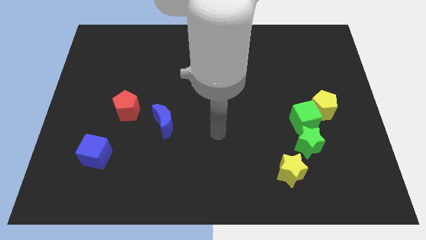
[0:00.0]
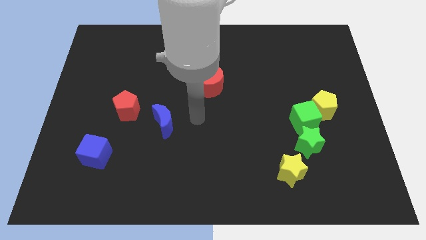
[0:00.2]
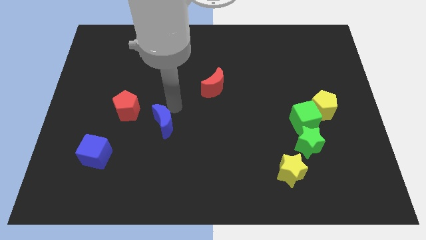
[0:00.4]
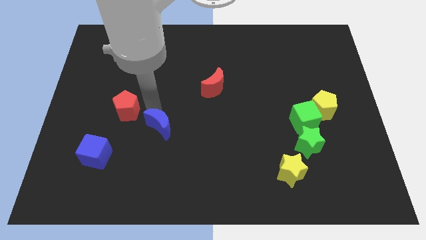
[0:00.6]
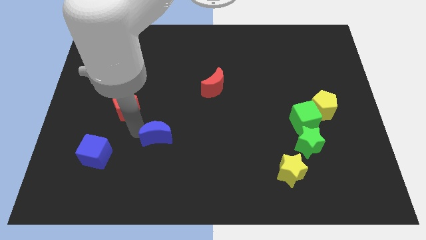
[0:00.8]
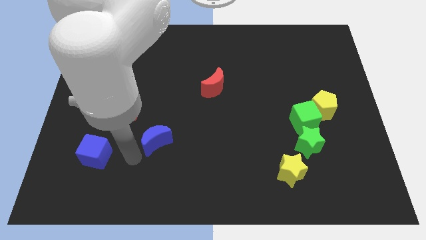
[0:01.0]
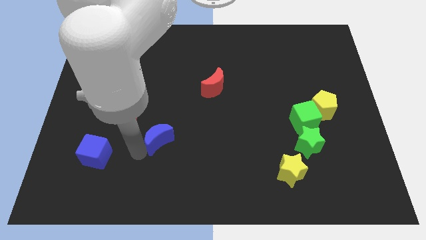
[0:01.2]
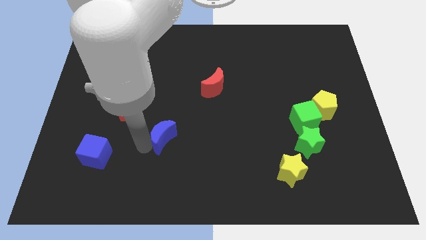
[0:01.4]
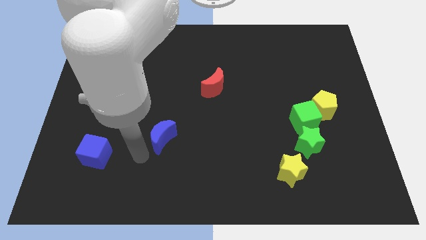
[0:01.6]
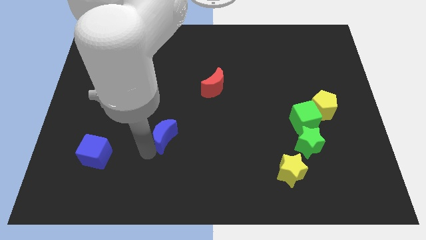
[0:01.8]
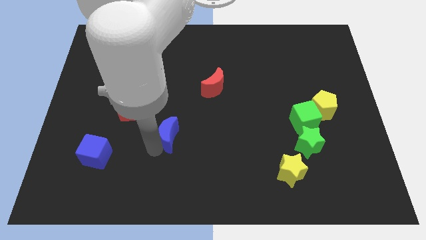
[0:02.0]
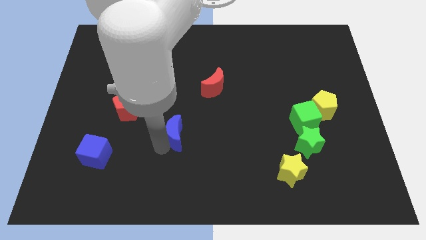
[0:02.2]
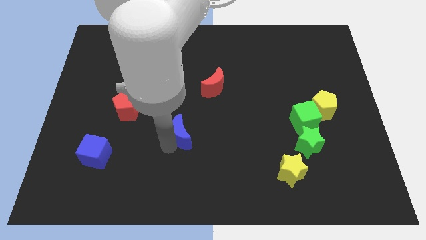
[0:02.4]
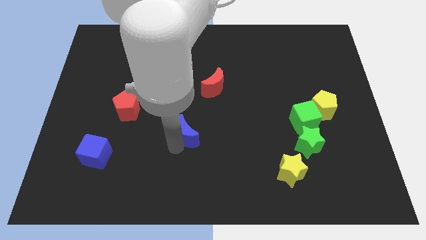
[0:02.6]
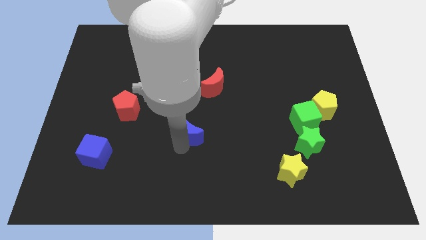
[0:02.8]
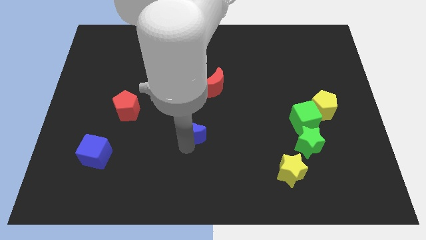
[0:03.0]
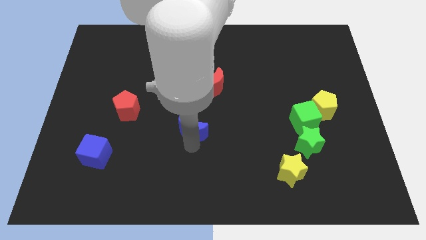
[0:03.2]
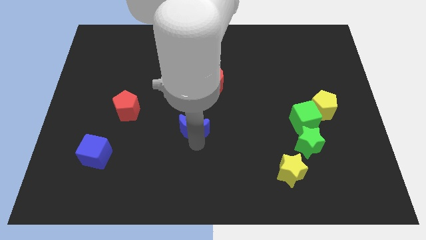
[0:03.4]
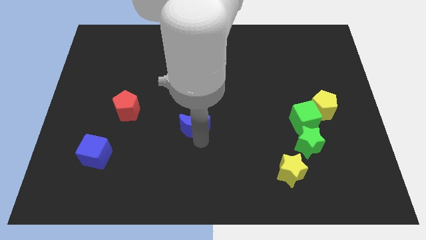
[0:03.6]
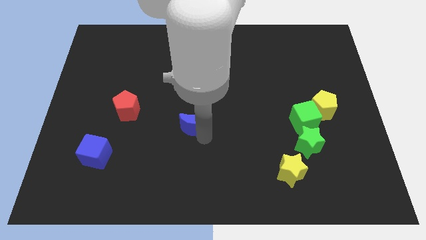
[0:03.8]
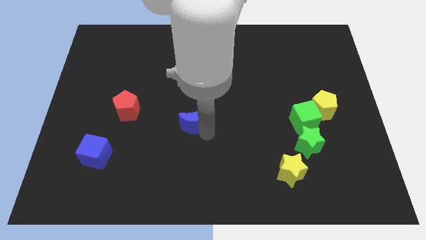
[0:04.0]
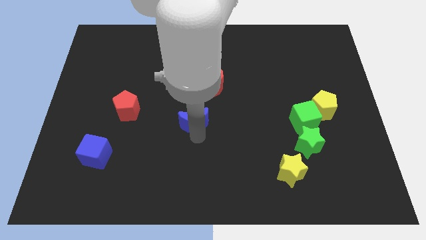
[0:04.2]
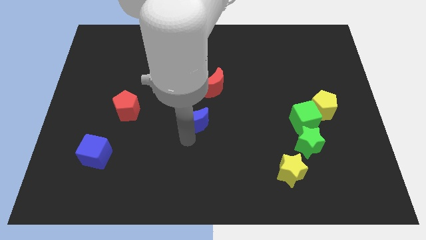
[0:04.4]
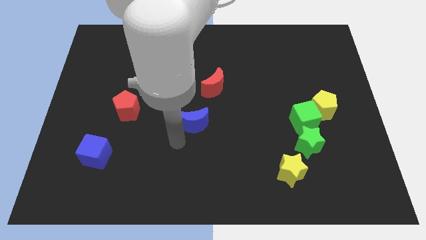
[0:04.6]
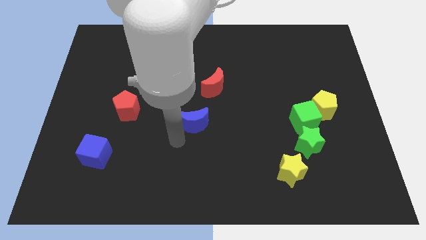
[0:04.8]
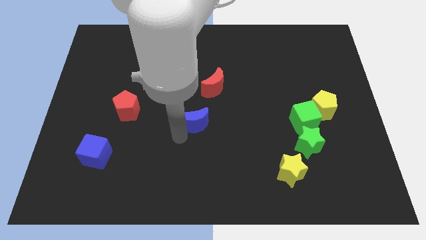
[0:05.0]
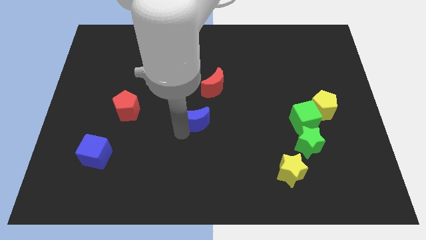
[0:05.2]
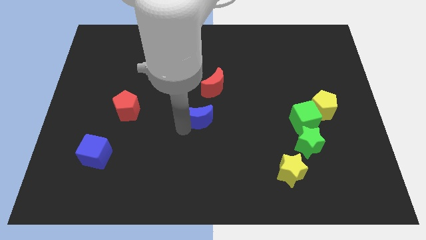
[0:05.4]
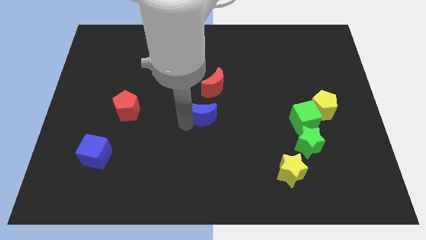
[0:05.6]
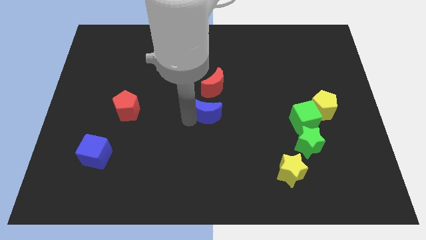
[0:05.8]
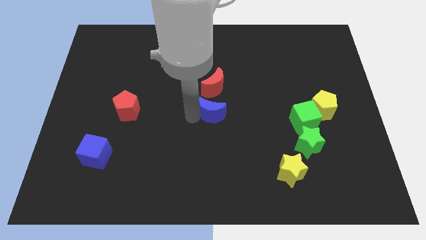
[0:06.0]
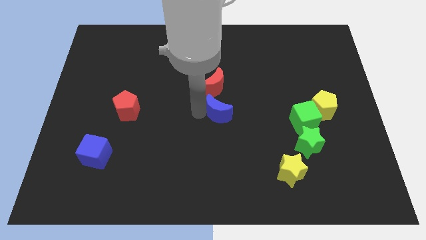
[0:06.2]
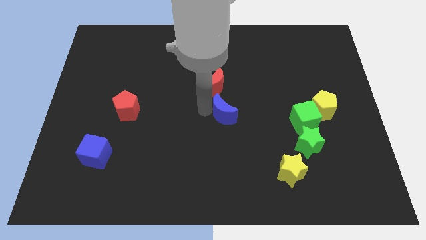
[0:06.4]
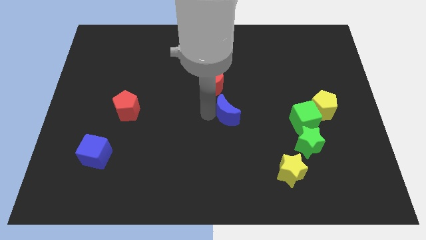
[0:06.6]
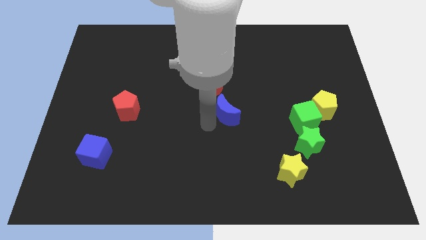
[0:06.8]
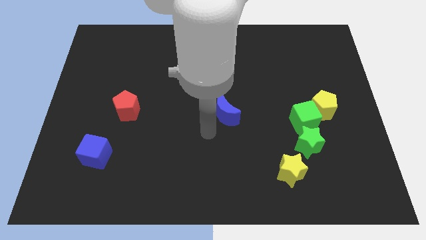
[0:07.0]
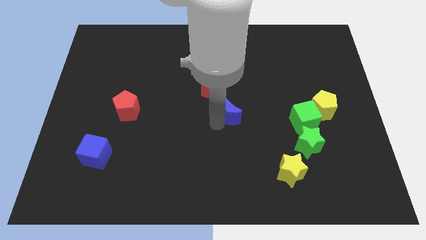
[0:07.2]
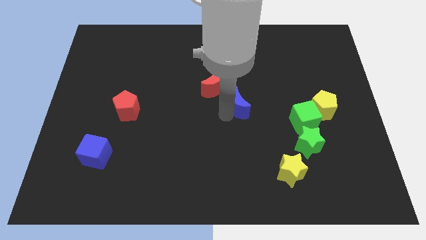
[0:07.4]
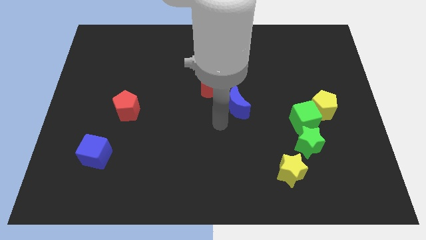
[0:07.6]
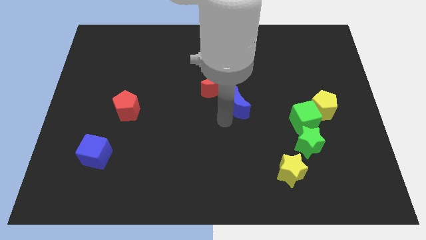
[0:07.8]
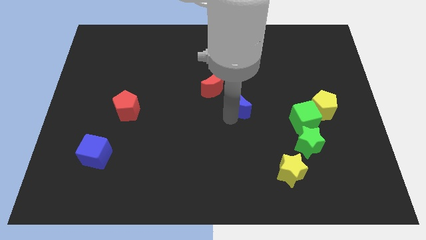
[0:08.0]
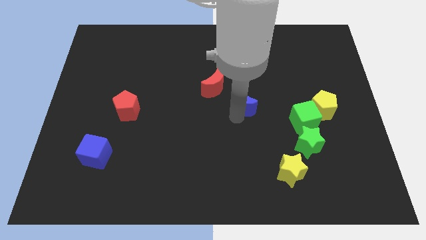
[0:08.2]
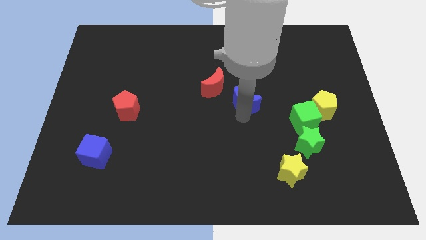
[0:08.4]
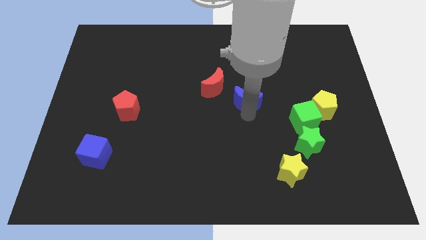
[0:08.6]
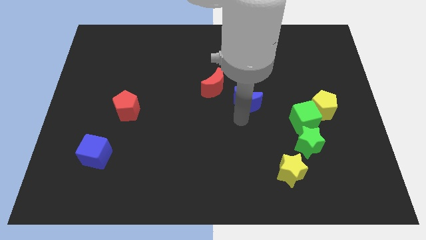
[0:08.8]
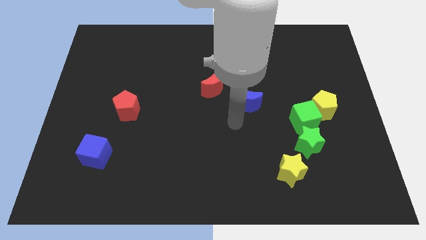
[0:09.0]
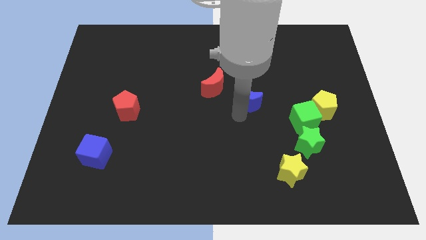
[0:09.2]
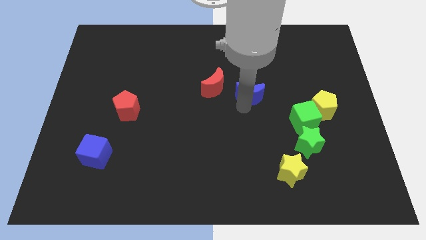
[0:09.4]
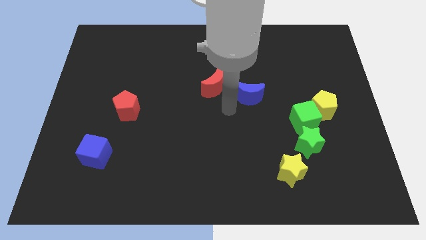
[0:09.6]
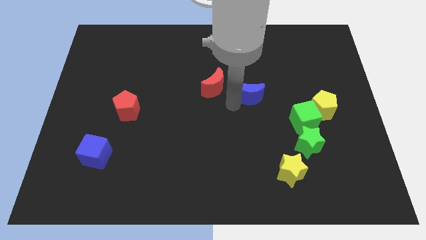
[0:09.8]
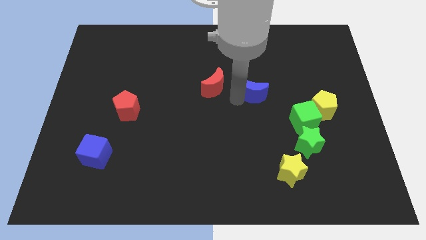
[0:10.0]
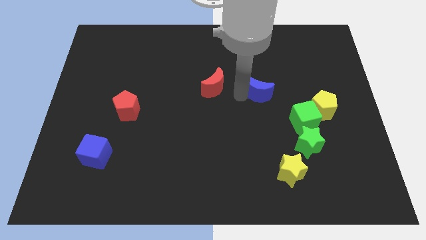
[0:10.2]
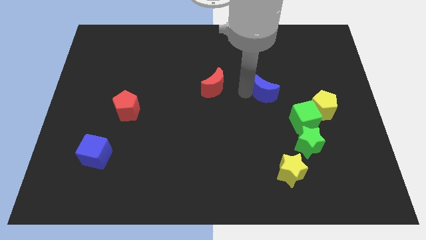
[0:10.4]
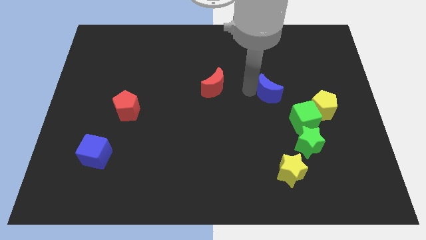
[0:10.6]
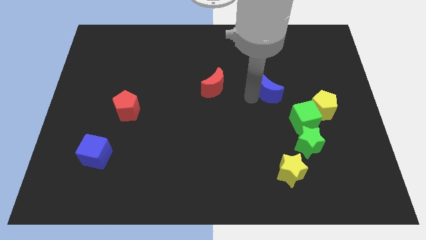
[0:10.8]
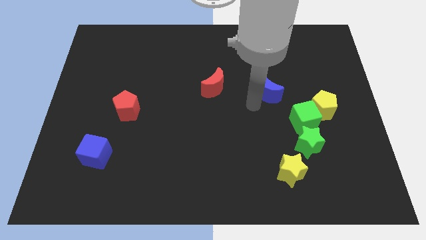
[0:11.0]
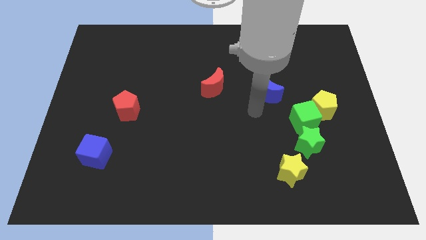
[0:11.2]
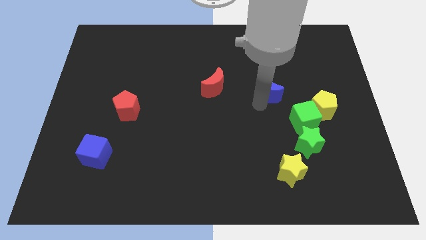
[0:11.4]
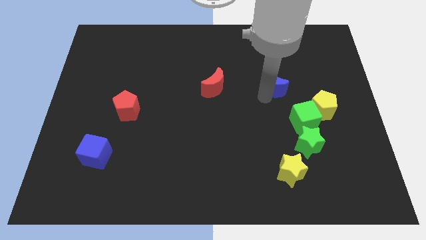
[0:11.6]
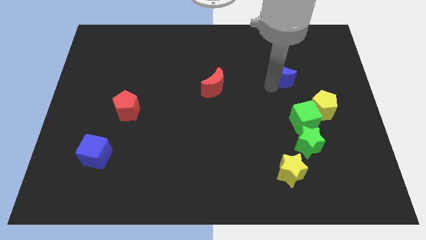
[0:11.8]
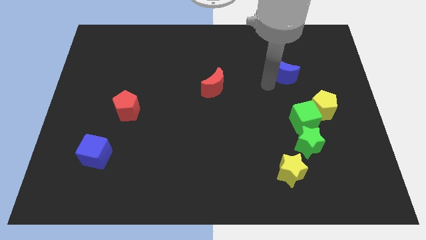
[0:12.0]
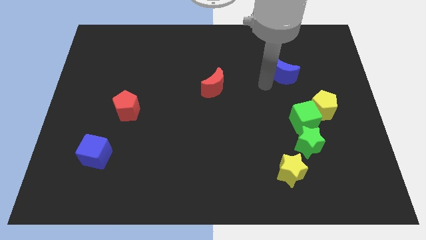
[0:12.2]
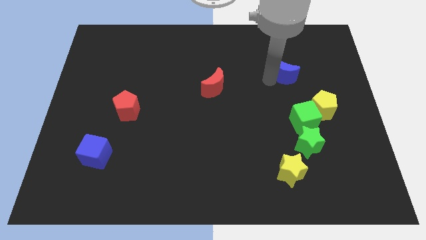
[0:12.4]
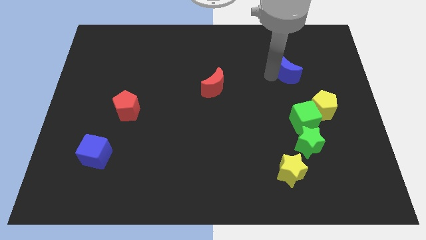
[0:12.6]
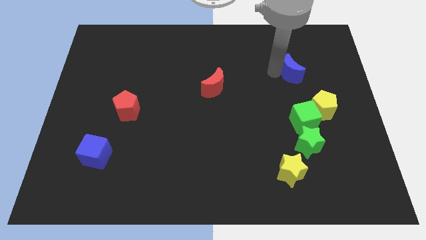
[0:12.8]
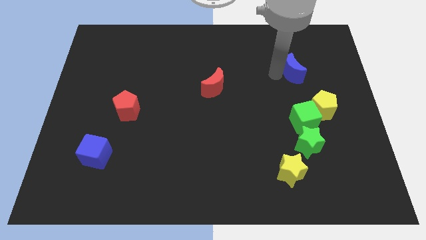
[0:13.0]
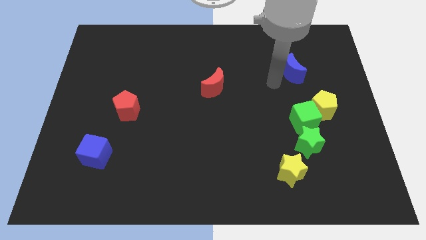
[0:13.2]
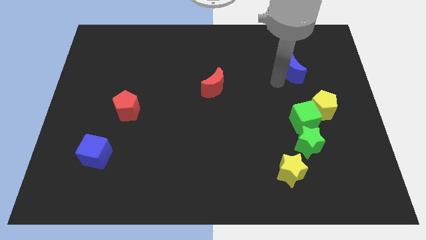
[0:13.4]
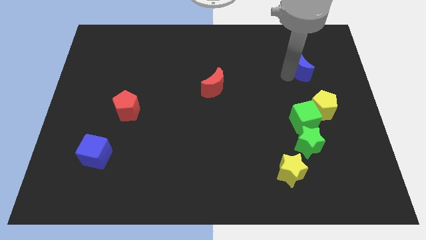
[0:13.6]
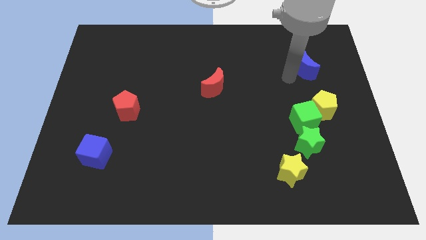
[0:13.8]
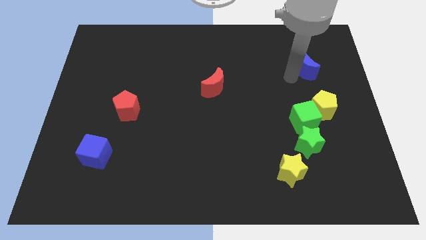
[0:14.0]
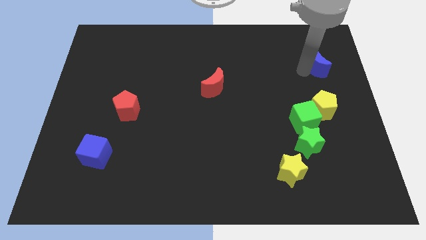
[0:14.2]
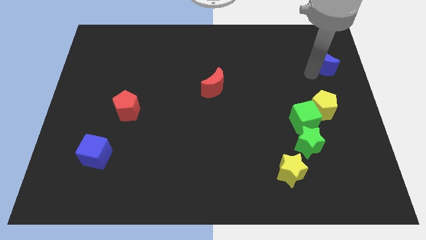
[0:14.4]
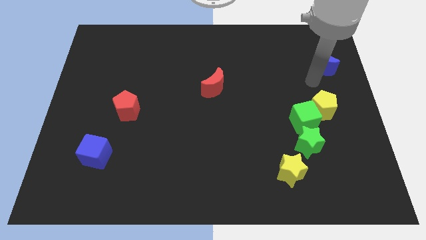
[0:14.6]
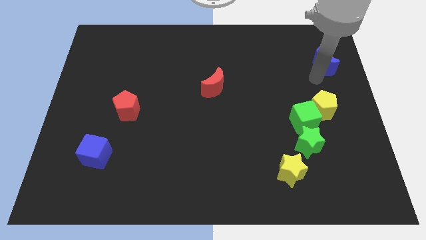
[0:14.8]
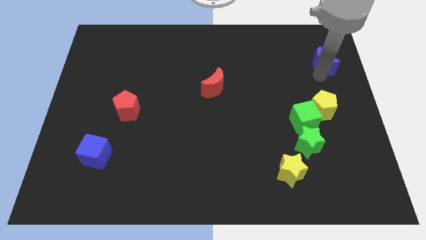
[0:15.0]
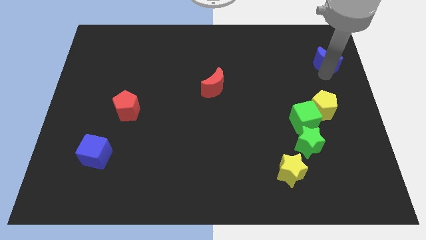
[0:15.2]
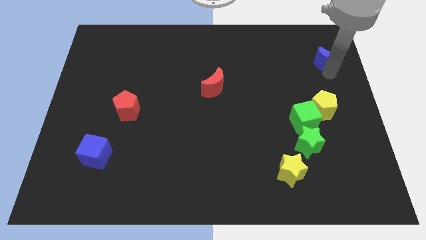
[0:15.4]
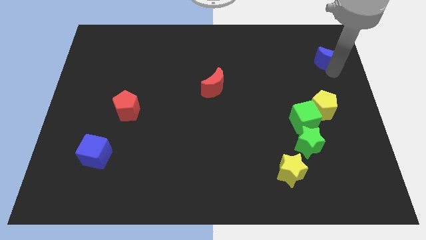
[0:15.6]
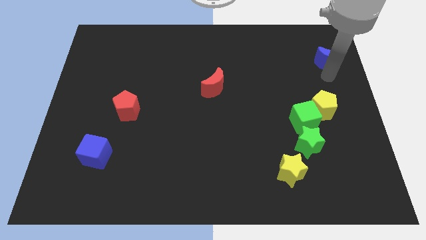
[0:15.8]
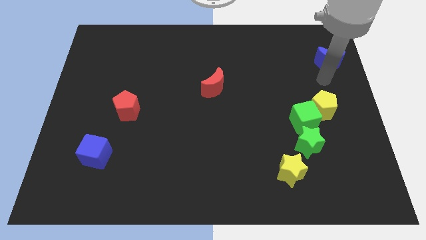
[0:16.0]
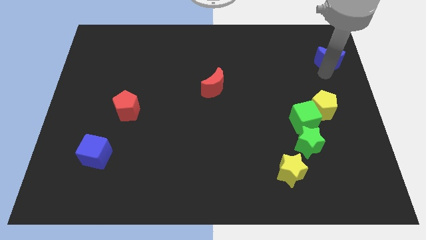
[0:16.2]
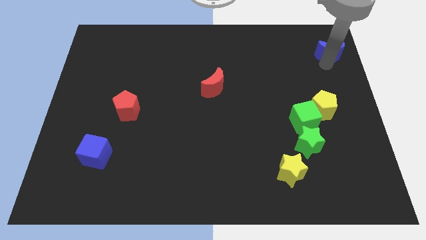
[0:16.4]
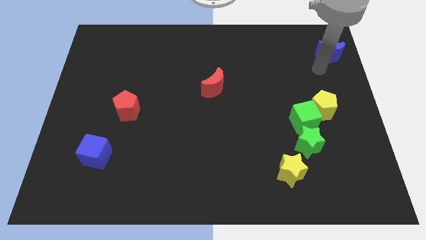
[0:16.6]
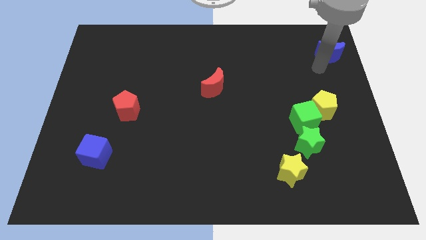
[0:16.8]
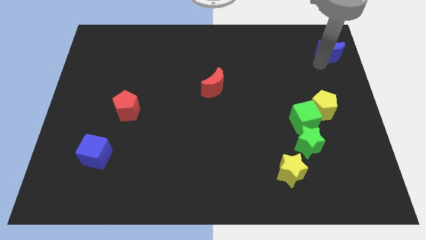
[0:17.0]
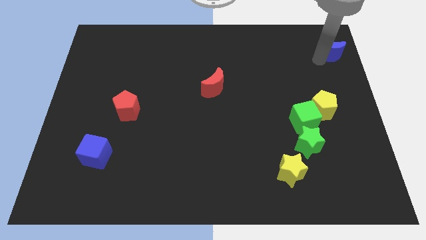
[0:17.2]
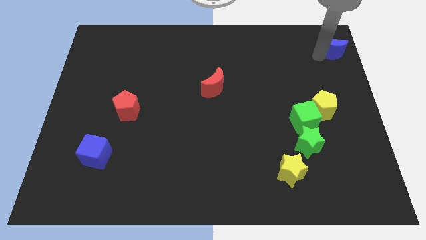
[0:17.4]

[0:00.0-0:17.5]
slide the blue moon to the upper right corner
